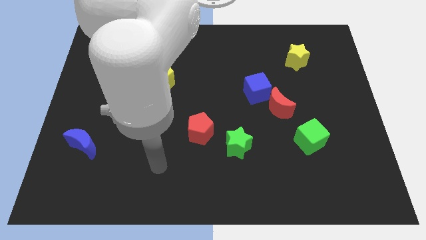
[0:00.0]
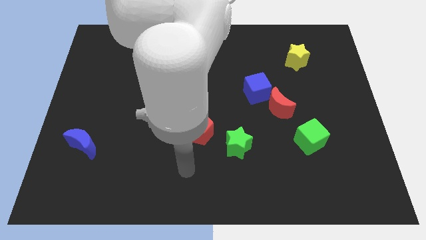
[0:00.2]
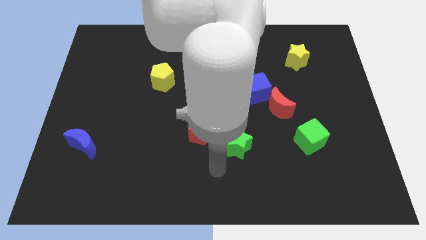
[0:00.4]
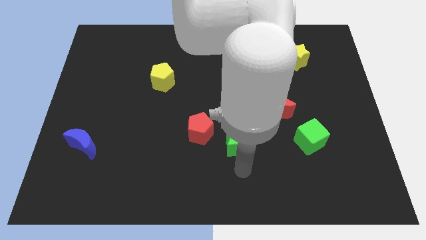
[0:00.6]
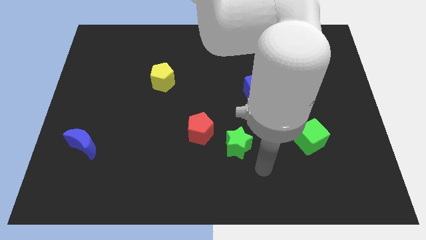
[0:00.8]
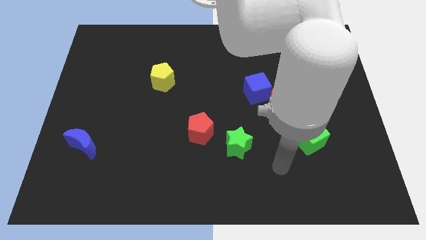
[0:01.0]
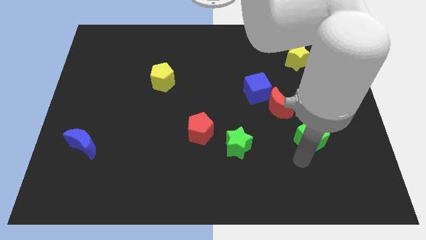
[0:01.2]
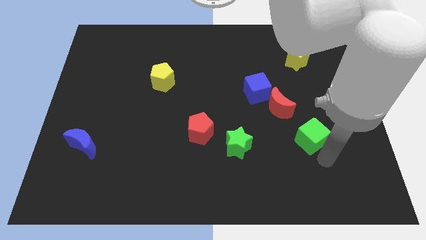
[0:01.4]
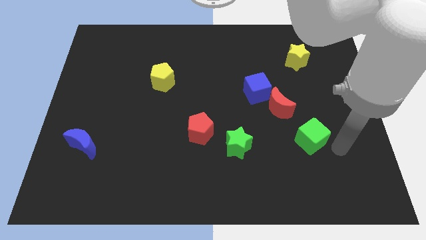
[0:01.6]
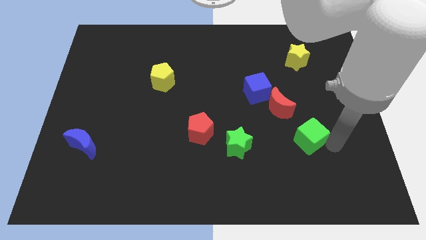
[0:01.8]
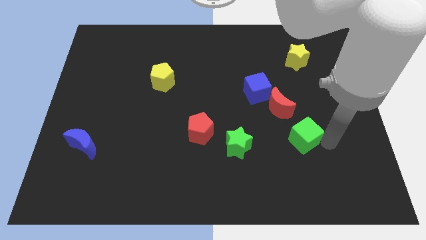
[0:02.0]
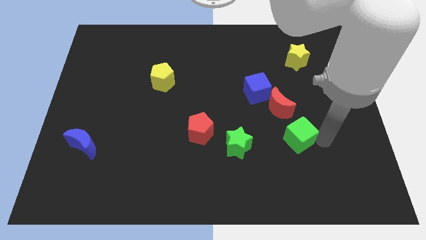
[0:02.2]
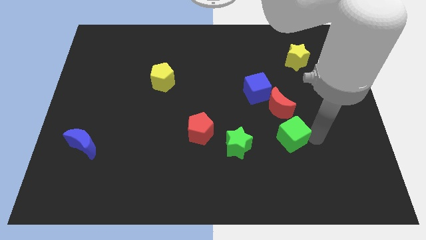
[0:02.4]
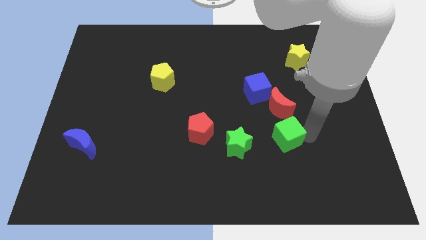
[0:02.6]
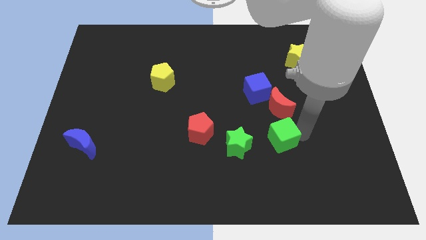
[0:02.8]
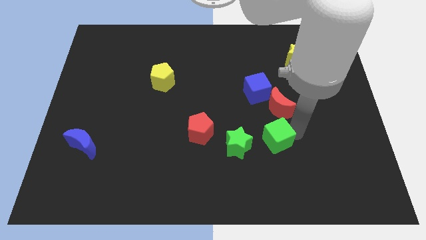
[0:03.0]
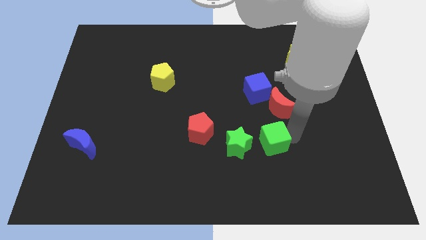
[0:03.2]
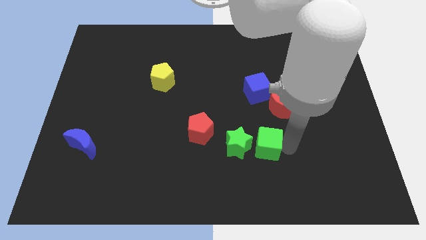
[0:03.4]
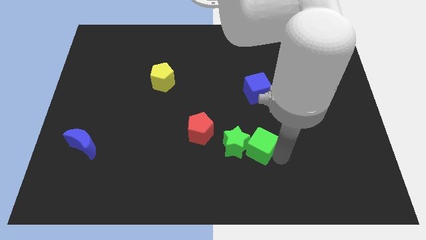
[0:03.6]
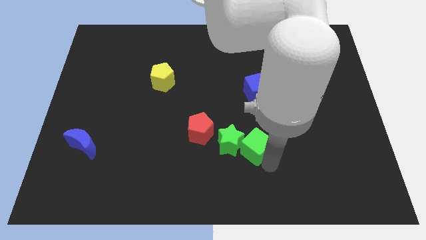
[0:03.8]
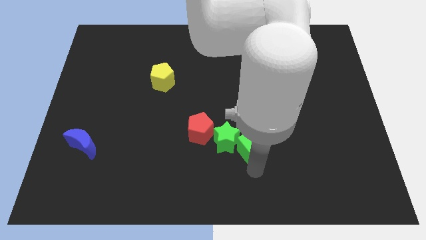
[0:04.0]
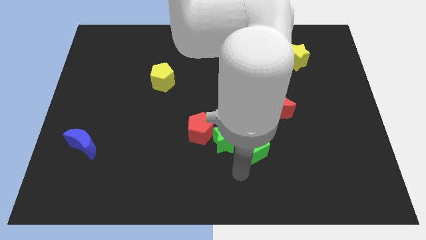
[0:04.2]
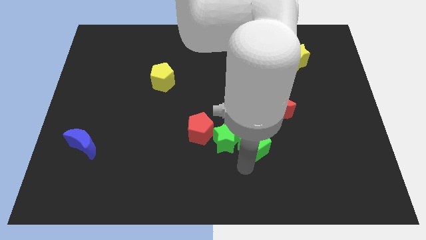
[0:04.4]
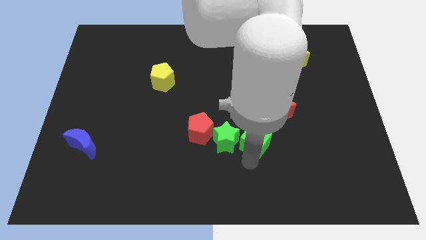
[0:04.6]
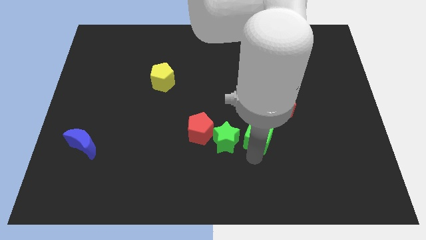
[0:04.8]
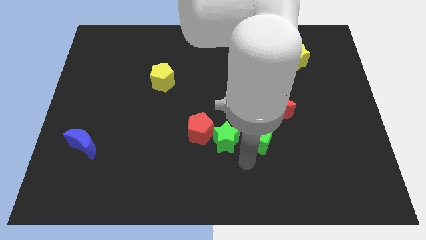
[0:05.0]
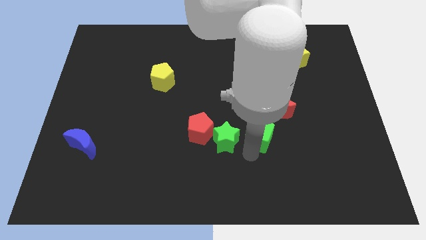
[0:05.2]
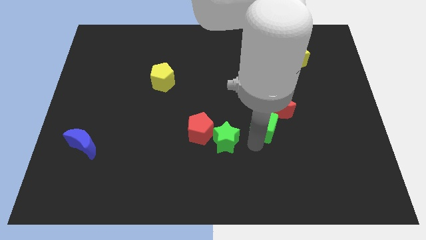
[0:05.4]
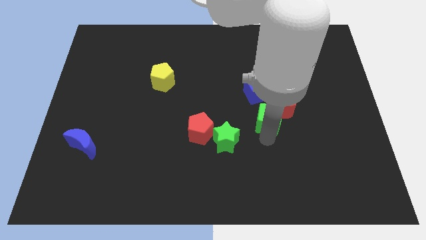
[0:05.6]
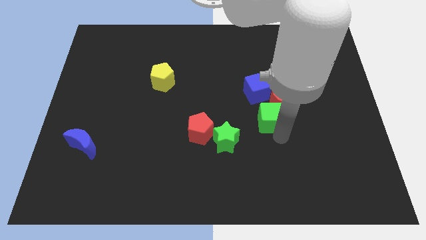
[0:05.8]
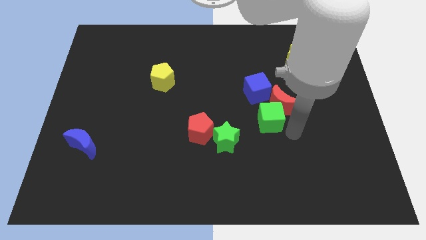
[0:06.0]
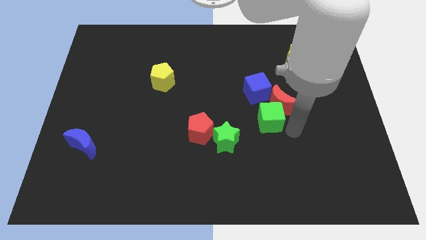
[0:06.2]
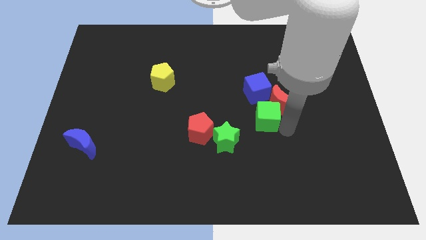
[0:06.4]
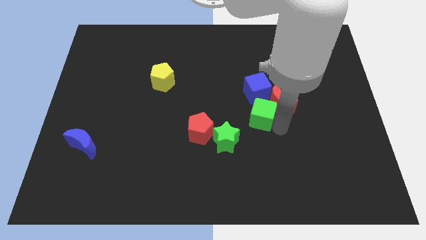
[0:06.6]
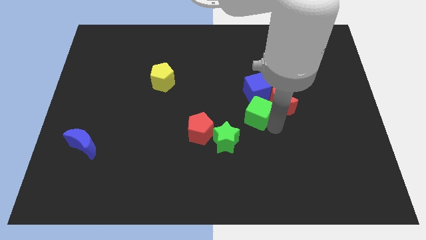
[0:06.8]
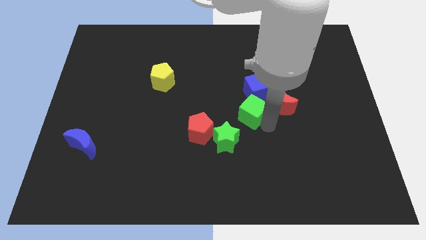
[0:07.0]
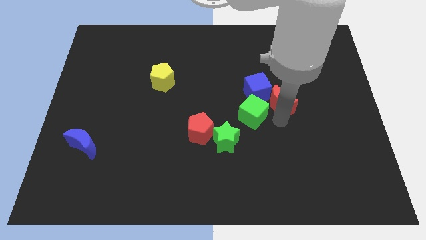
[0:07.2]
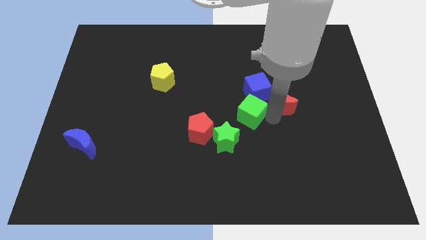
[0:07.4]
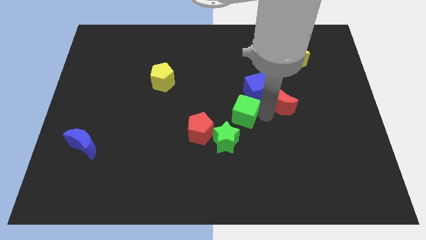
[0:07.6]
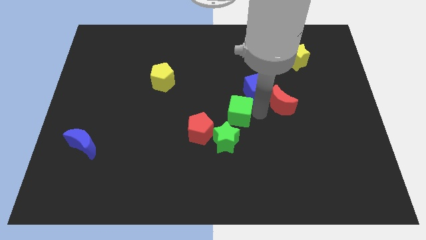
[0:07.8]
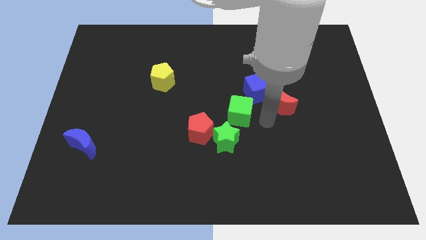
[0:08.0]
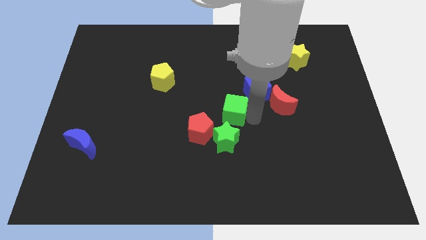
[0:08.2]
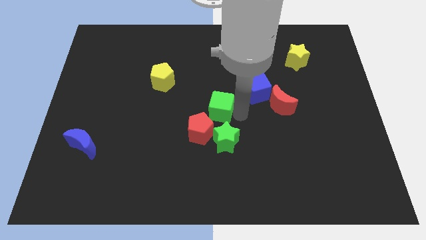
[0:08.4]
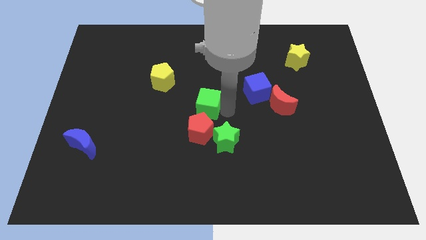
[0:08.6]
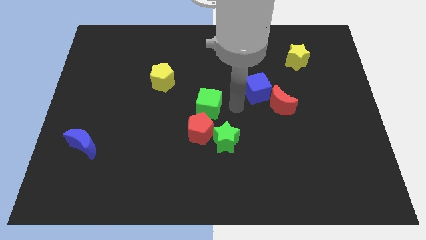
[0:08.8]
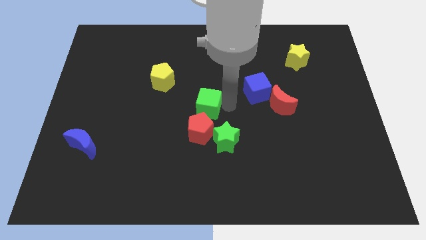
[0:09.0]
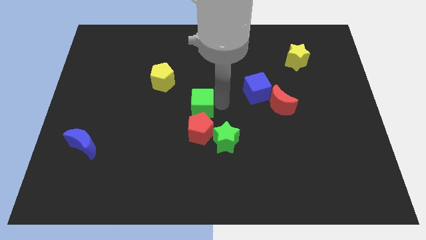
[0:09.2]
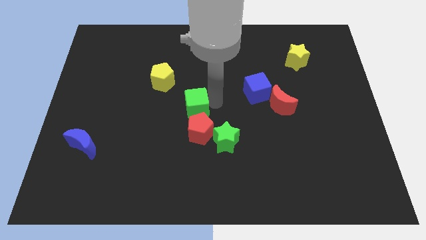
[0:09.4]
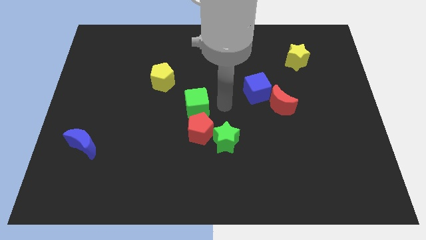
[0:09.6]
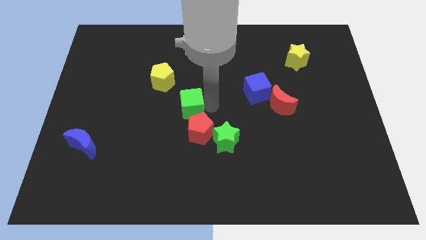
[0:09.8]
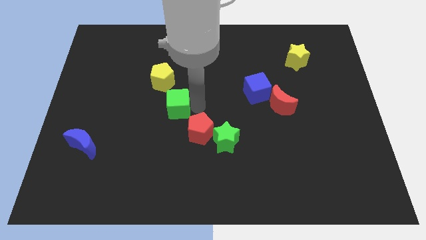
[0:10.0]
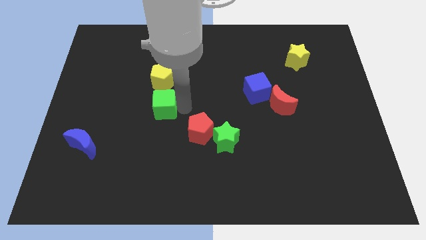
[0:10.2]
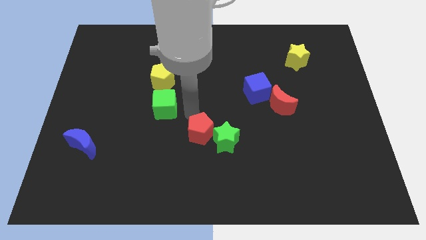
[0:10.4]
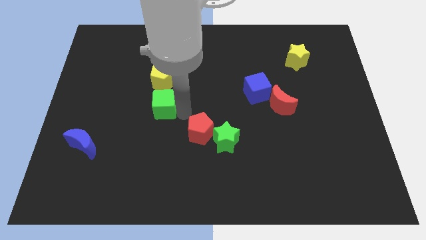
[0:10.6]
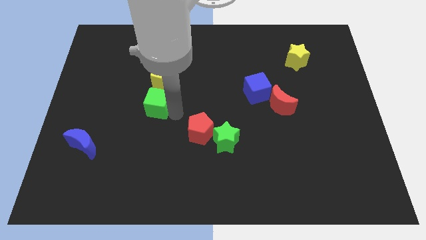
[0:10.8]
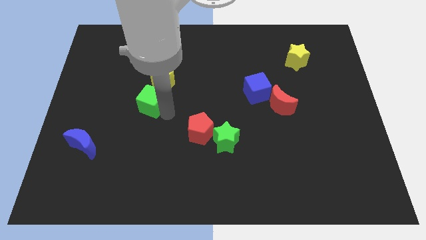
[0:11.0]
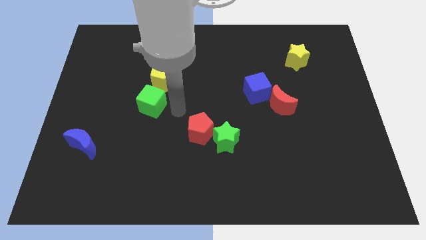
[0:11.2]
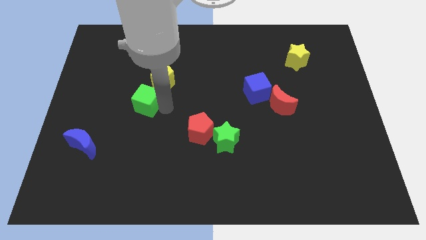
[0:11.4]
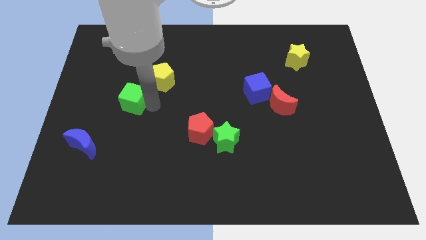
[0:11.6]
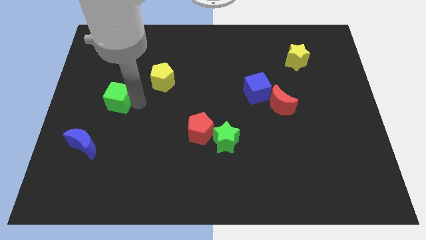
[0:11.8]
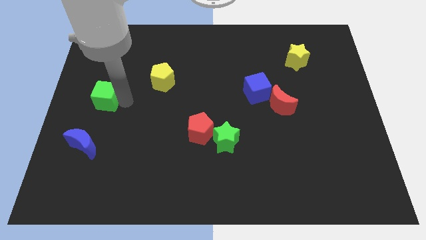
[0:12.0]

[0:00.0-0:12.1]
put the green cube to the left side
